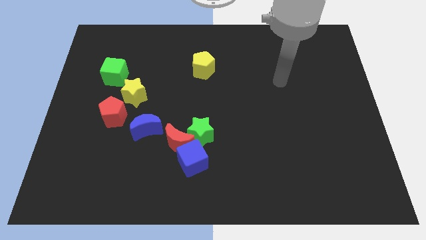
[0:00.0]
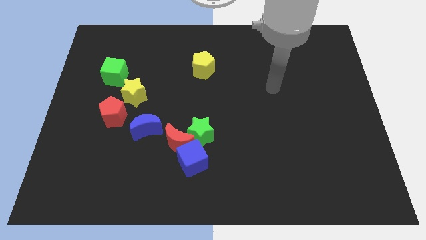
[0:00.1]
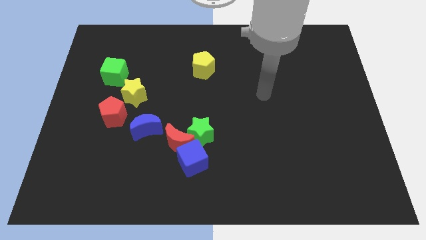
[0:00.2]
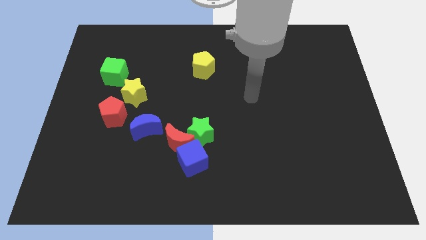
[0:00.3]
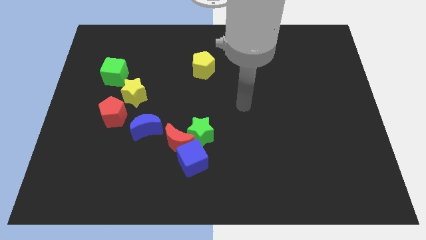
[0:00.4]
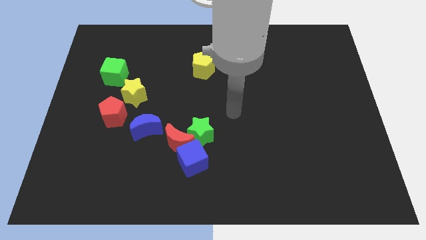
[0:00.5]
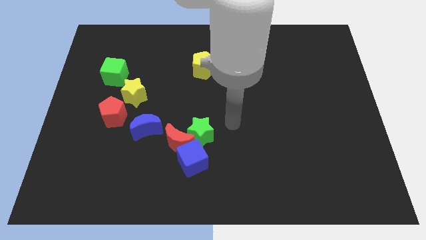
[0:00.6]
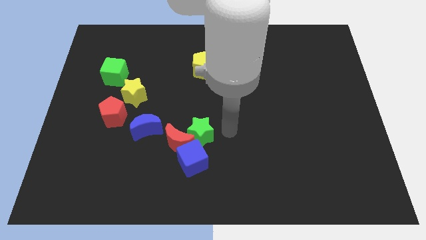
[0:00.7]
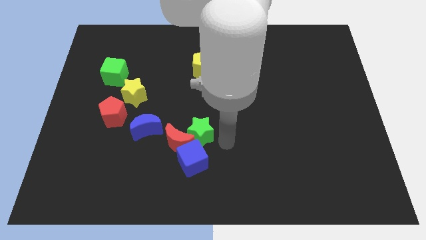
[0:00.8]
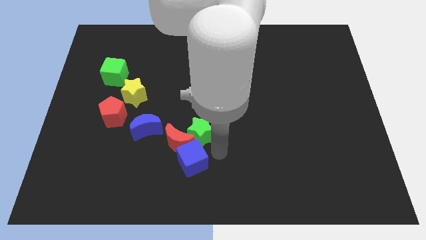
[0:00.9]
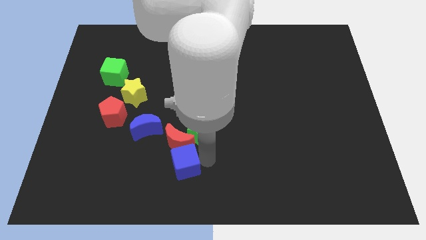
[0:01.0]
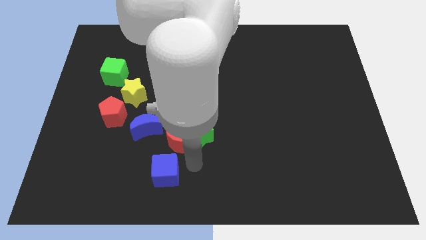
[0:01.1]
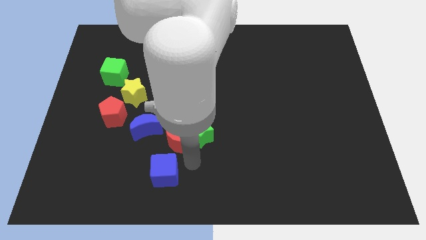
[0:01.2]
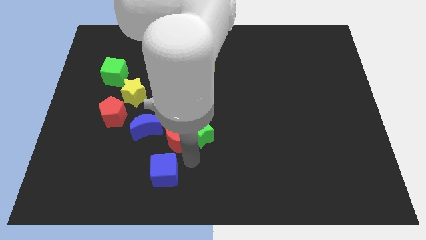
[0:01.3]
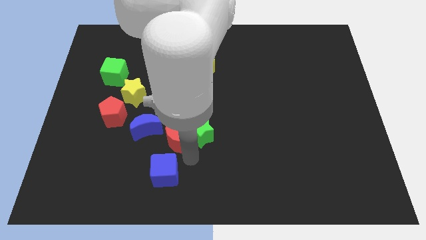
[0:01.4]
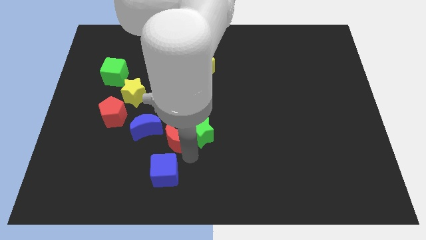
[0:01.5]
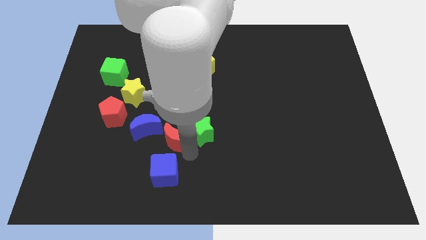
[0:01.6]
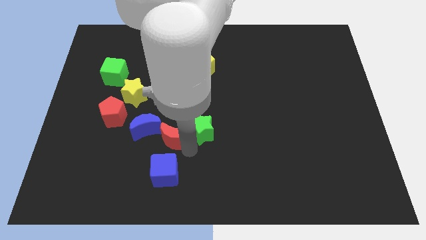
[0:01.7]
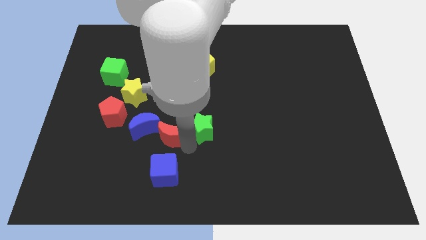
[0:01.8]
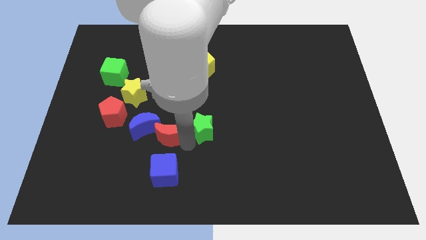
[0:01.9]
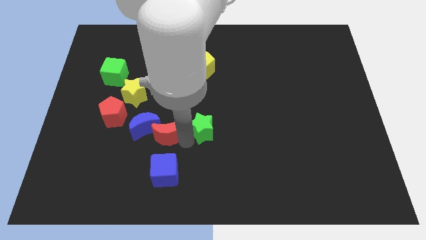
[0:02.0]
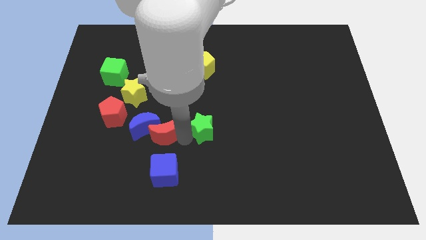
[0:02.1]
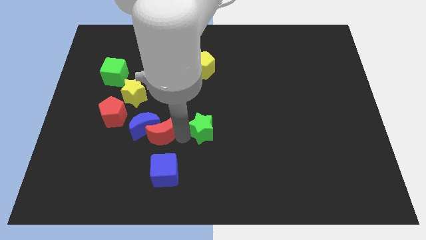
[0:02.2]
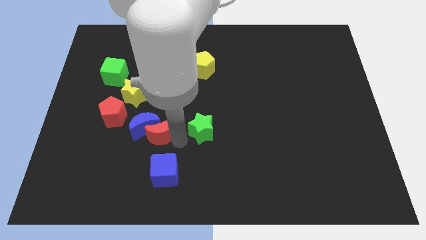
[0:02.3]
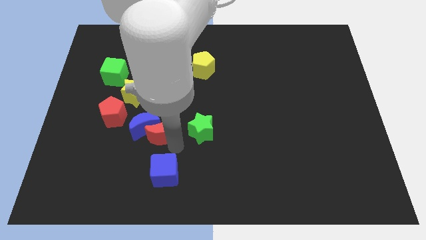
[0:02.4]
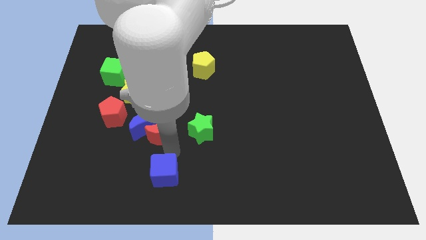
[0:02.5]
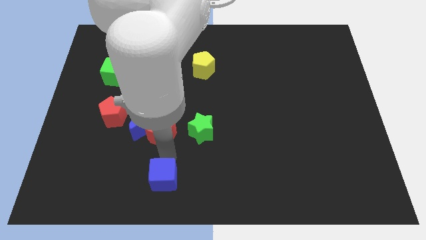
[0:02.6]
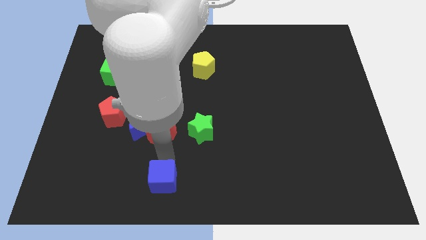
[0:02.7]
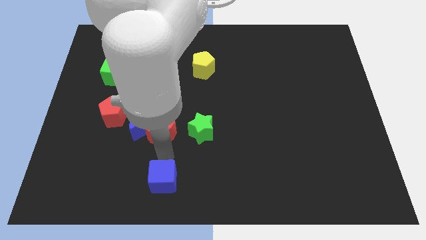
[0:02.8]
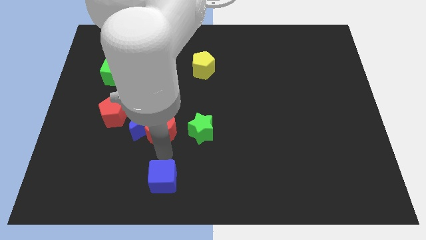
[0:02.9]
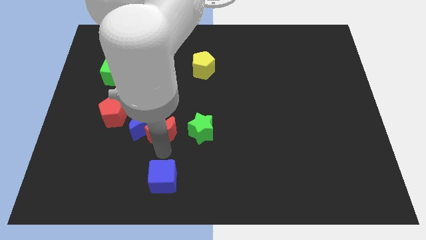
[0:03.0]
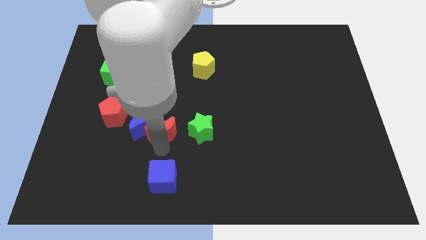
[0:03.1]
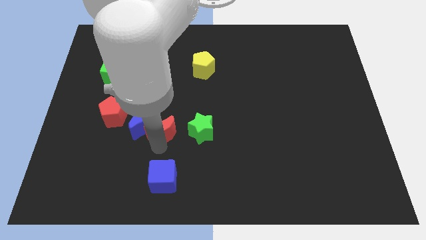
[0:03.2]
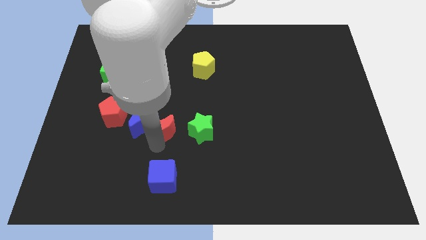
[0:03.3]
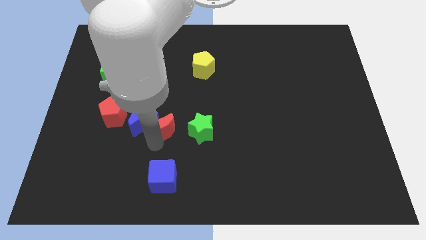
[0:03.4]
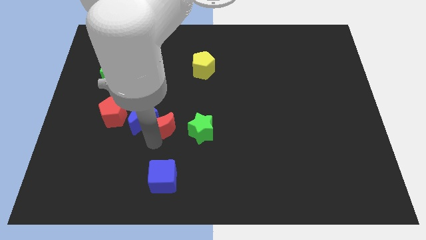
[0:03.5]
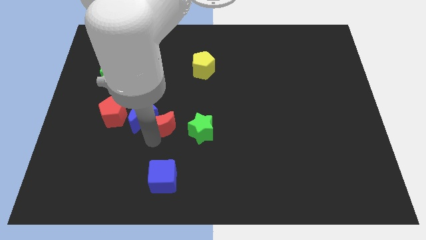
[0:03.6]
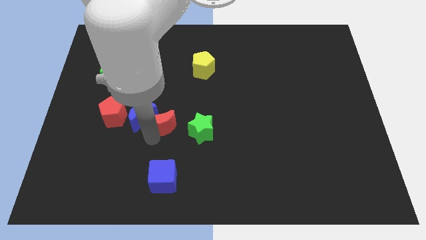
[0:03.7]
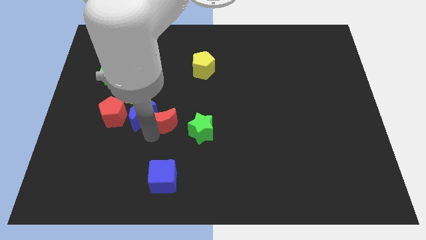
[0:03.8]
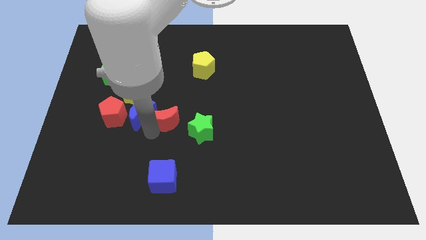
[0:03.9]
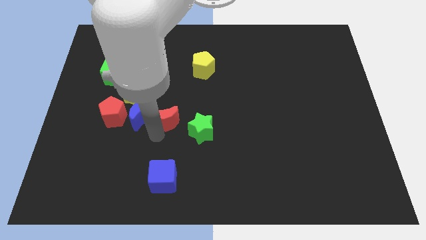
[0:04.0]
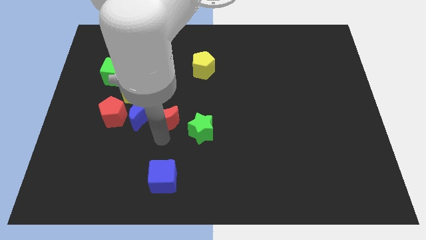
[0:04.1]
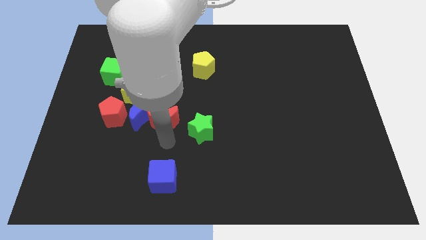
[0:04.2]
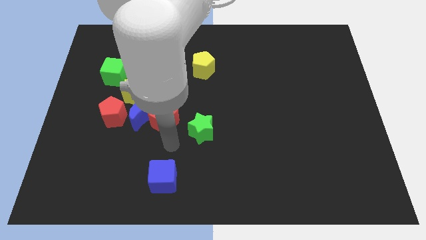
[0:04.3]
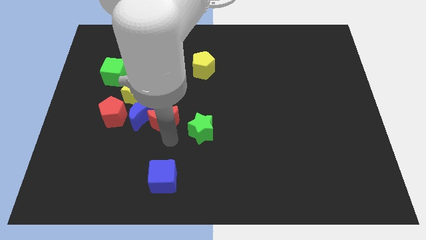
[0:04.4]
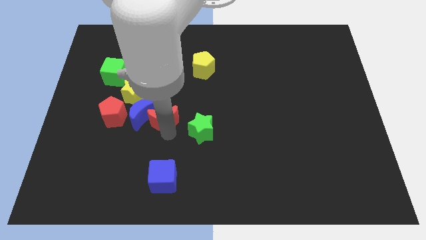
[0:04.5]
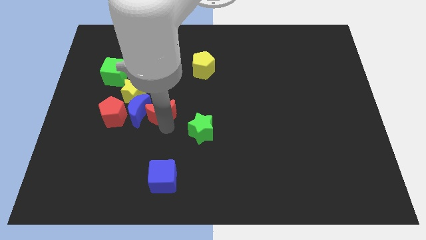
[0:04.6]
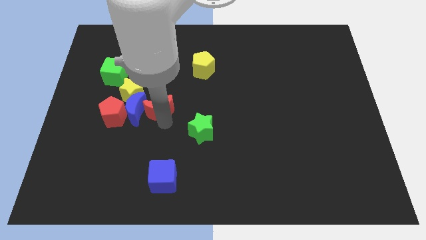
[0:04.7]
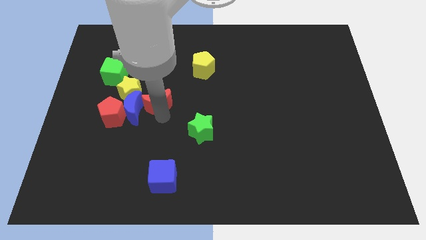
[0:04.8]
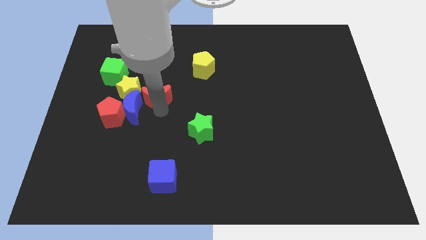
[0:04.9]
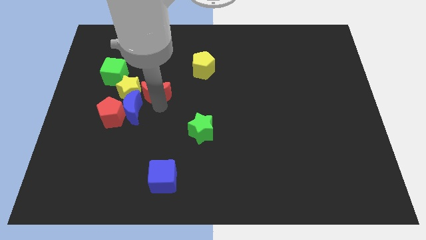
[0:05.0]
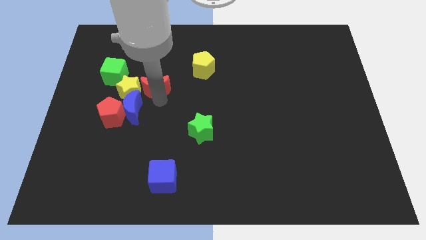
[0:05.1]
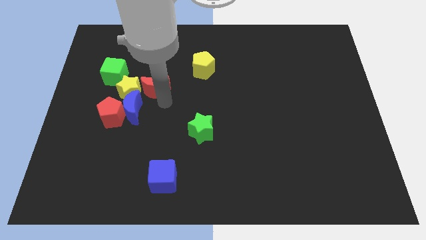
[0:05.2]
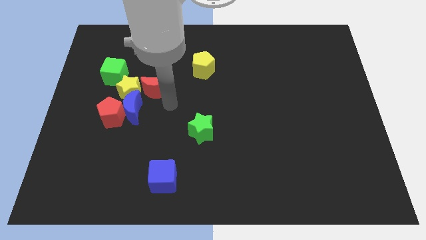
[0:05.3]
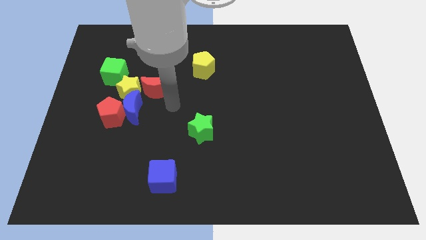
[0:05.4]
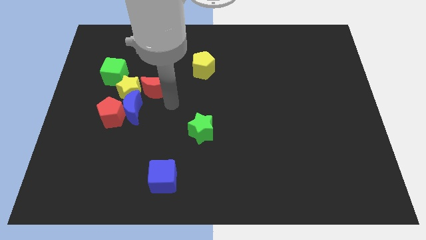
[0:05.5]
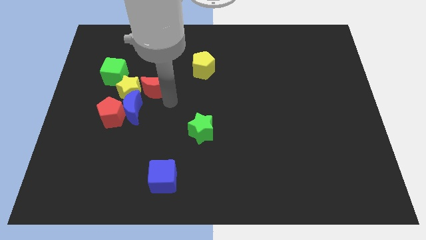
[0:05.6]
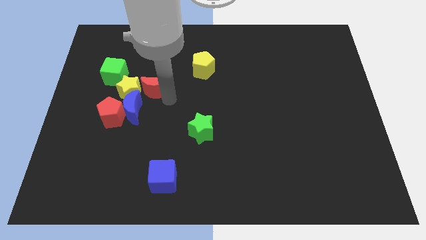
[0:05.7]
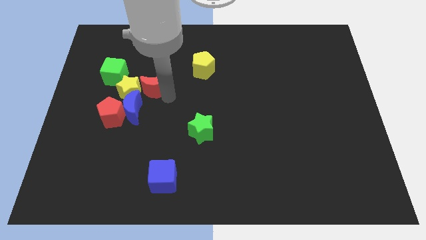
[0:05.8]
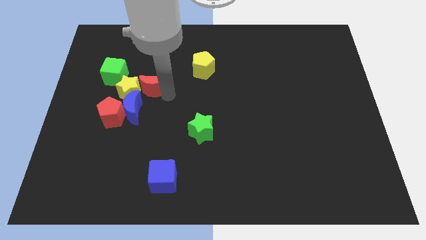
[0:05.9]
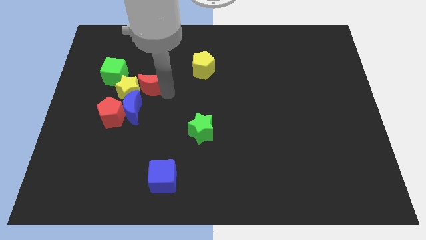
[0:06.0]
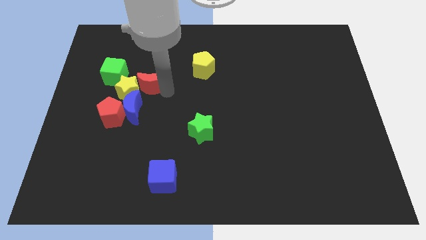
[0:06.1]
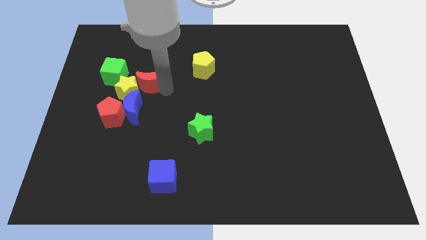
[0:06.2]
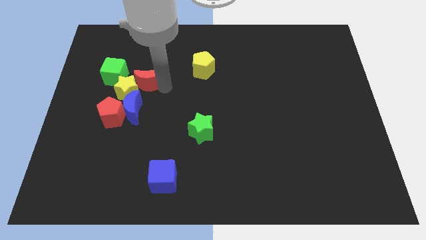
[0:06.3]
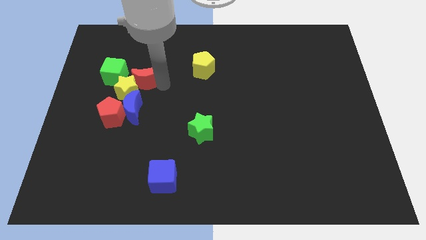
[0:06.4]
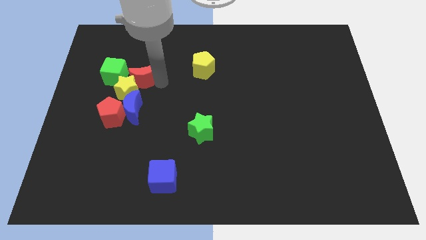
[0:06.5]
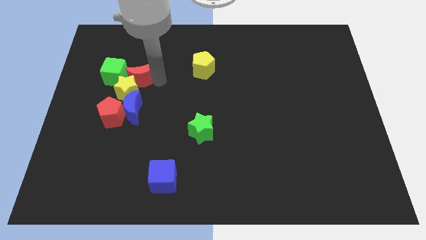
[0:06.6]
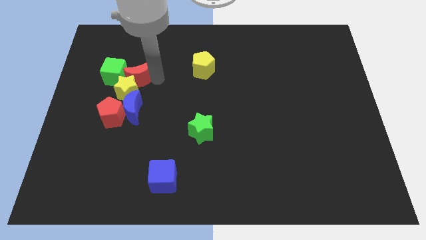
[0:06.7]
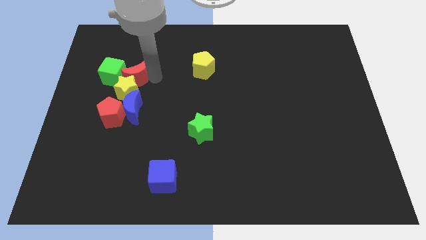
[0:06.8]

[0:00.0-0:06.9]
move the red moon close to the green cube
